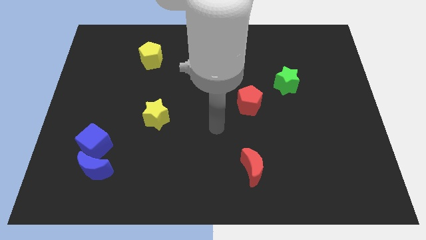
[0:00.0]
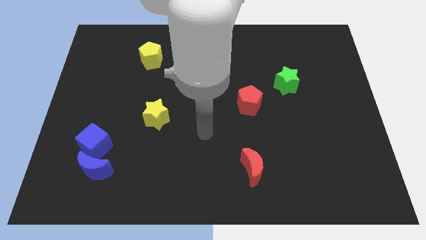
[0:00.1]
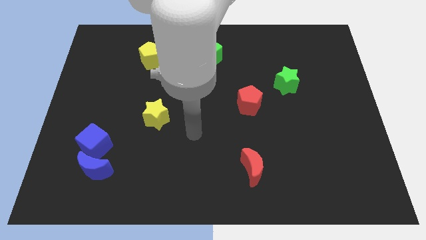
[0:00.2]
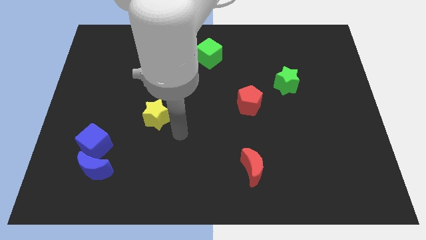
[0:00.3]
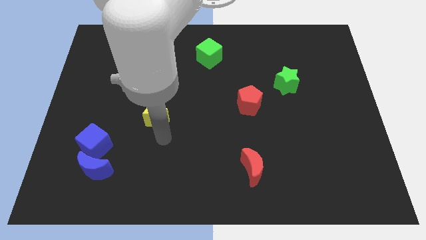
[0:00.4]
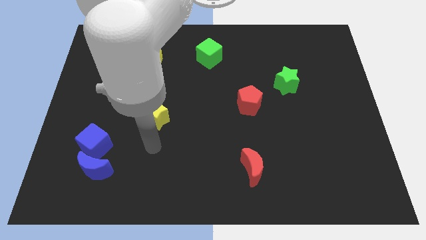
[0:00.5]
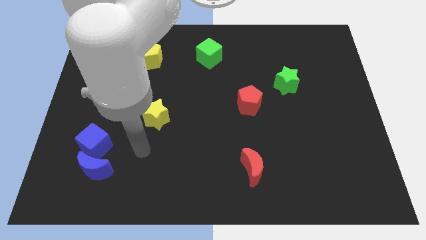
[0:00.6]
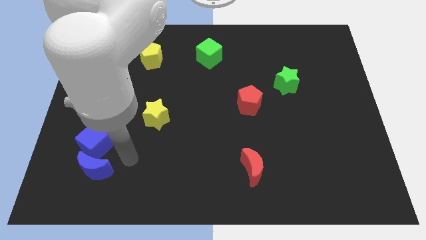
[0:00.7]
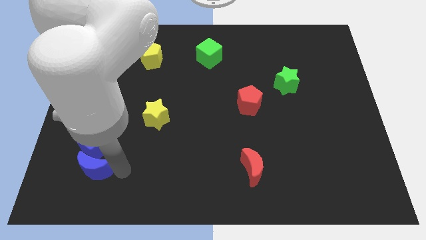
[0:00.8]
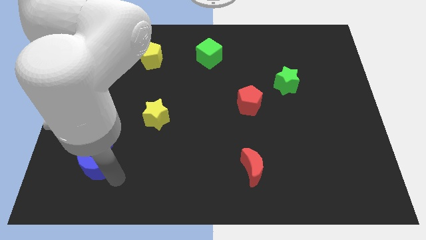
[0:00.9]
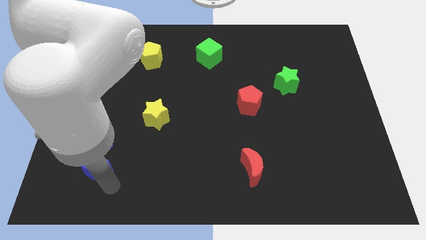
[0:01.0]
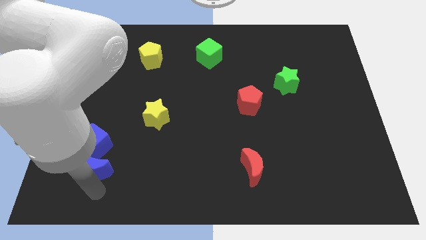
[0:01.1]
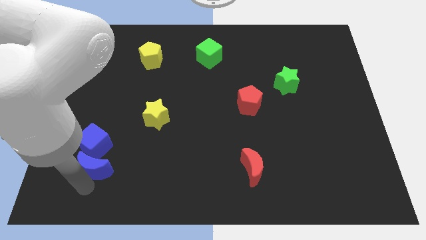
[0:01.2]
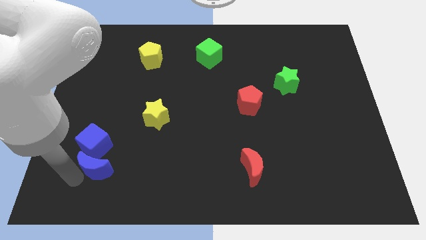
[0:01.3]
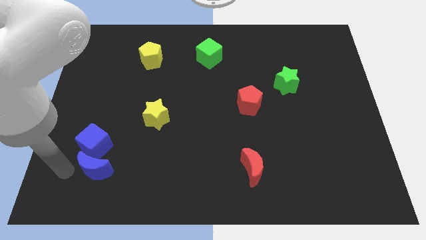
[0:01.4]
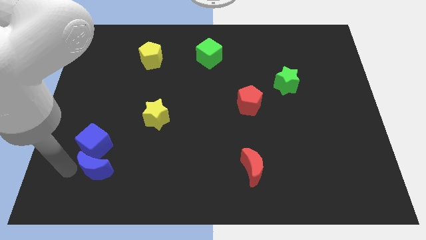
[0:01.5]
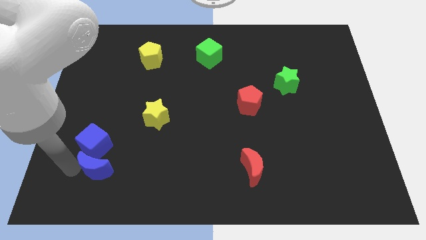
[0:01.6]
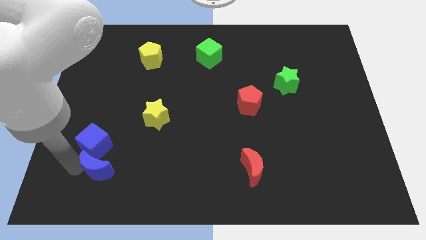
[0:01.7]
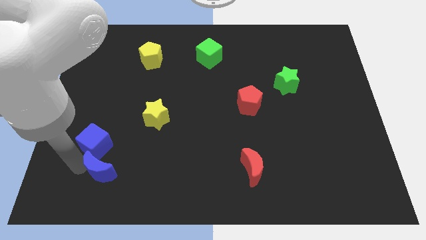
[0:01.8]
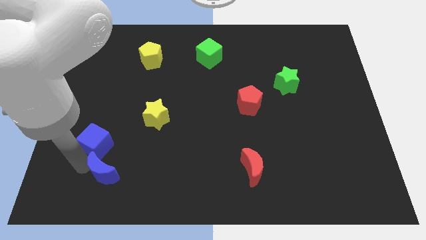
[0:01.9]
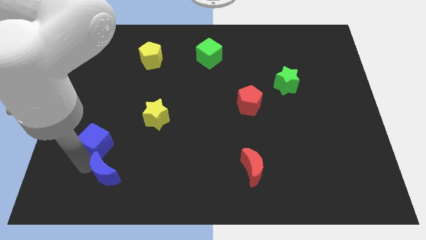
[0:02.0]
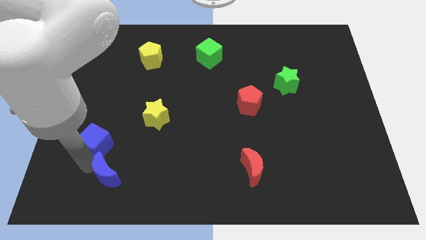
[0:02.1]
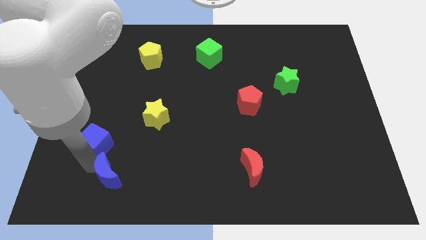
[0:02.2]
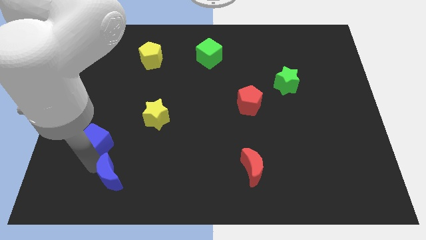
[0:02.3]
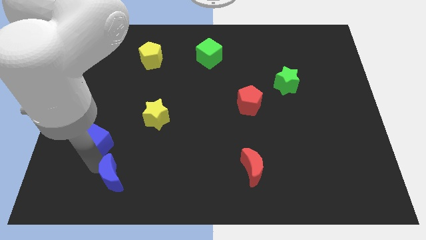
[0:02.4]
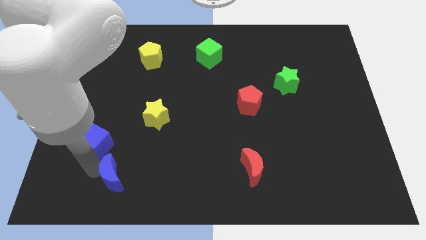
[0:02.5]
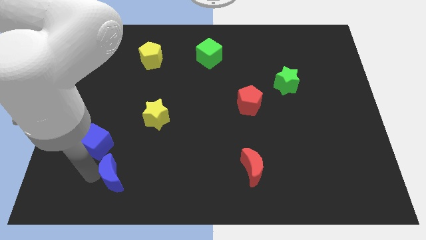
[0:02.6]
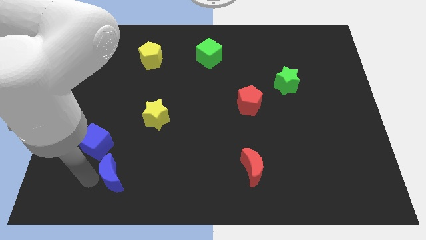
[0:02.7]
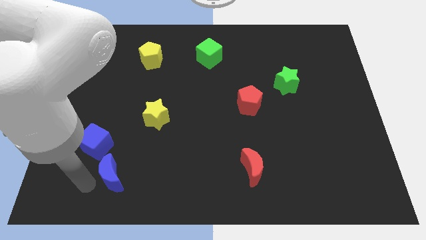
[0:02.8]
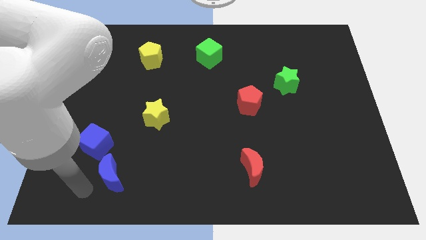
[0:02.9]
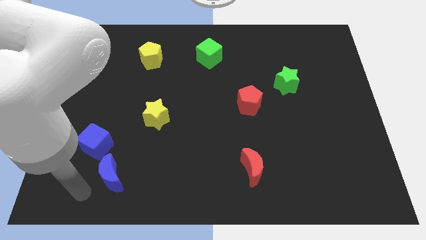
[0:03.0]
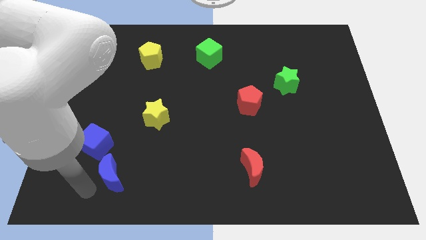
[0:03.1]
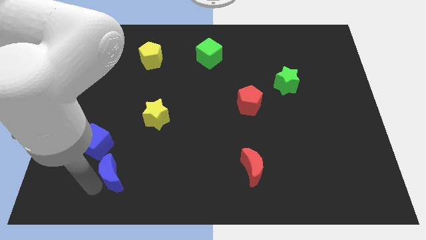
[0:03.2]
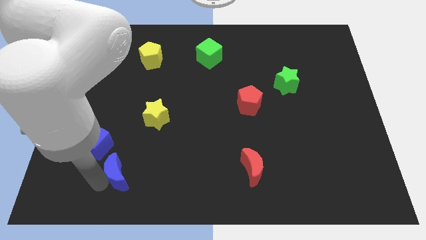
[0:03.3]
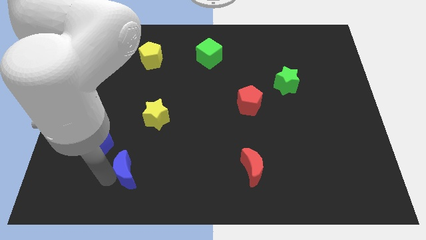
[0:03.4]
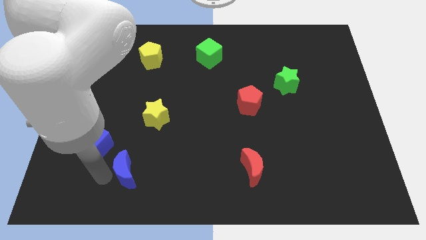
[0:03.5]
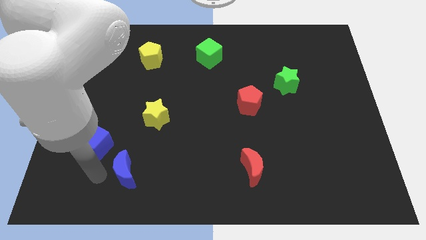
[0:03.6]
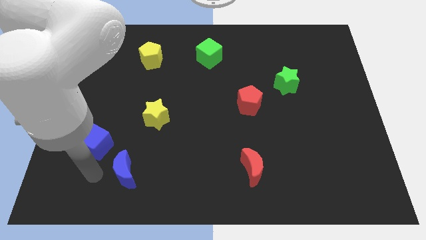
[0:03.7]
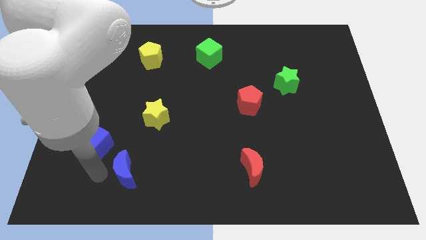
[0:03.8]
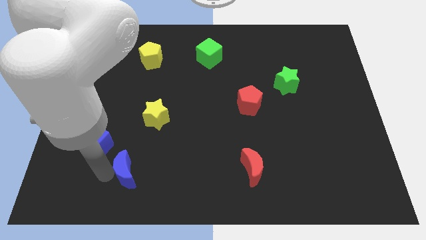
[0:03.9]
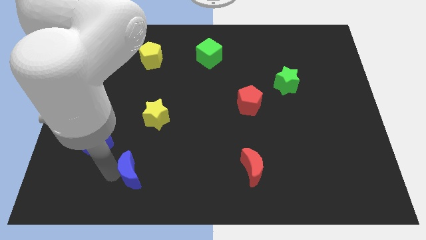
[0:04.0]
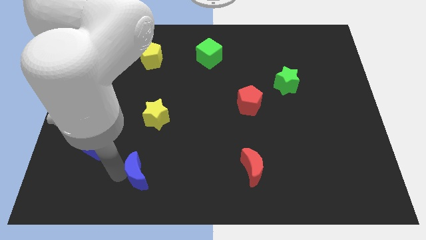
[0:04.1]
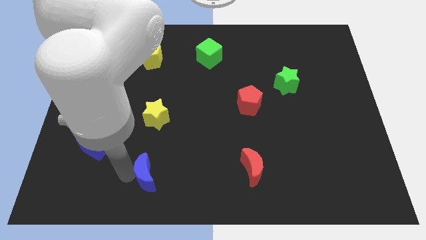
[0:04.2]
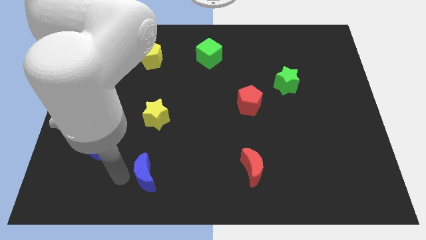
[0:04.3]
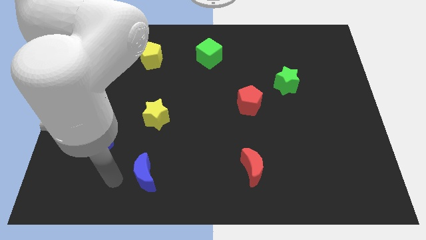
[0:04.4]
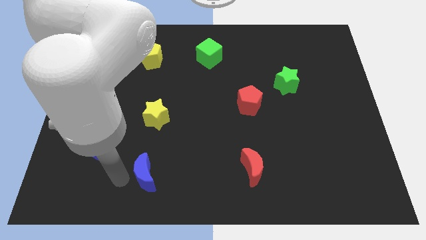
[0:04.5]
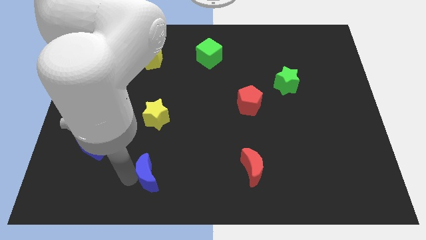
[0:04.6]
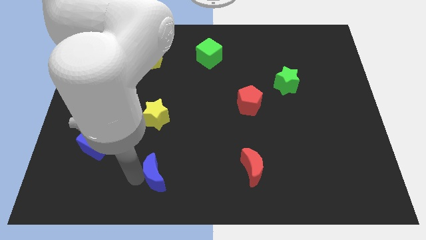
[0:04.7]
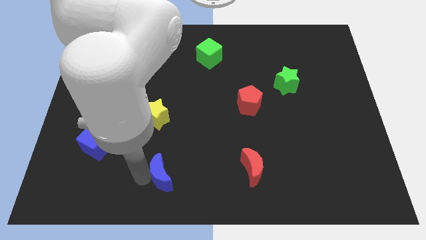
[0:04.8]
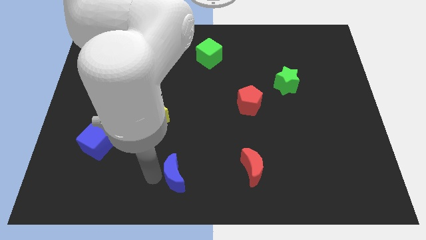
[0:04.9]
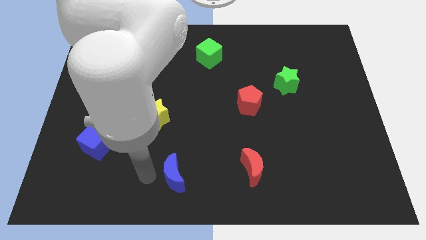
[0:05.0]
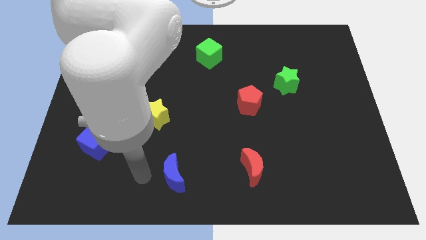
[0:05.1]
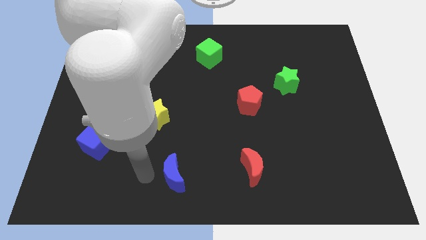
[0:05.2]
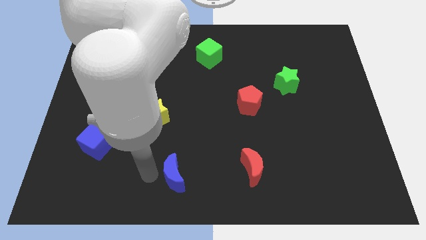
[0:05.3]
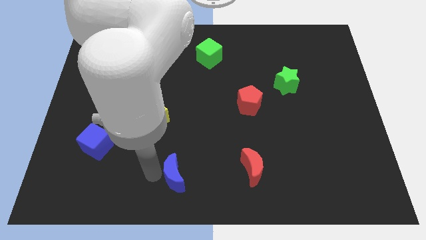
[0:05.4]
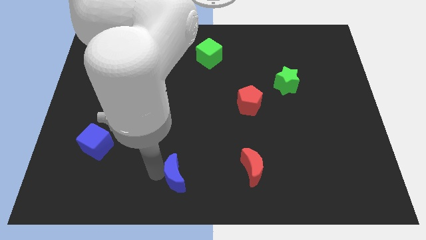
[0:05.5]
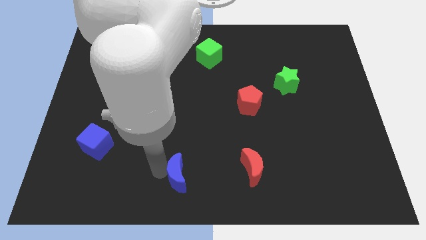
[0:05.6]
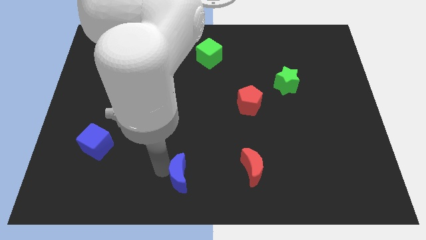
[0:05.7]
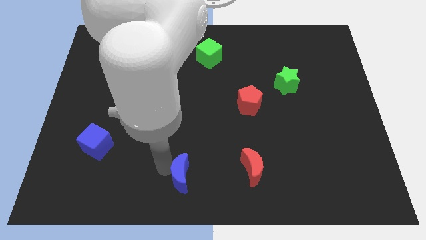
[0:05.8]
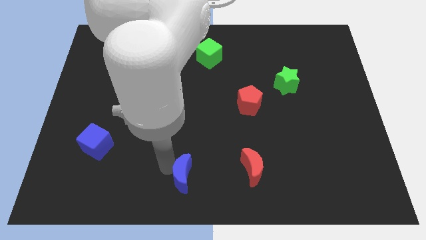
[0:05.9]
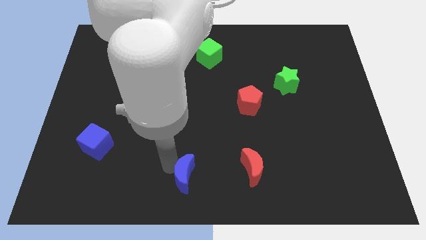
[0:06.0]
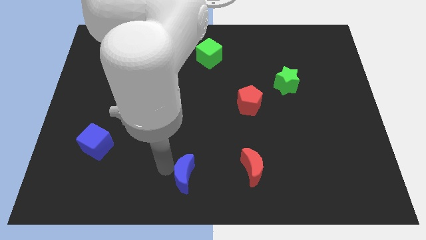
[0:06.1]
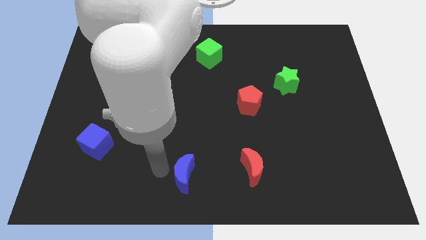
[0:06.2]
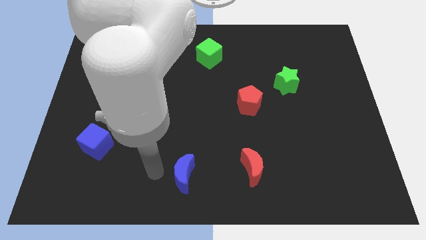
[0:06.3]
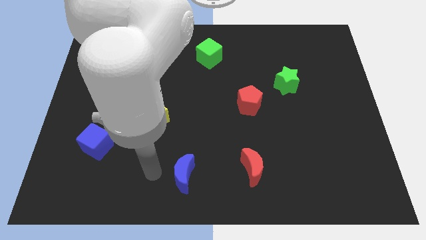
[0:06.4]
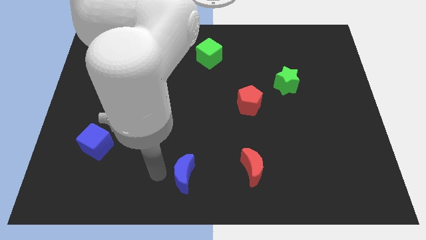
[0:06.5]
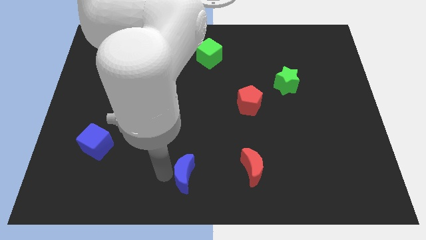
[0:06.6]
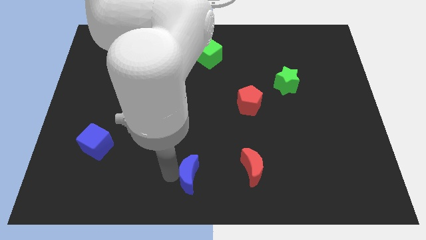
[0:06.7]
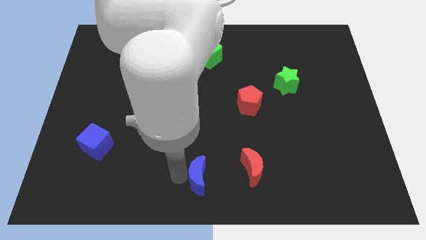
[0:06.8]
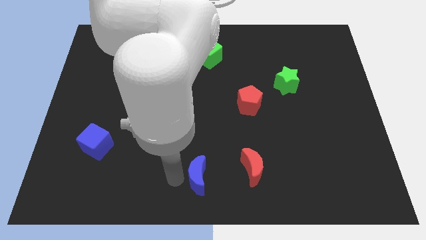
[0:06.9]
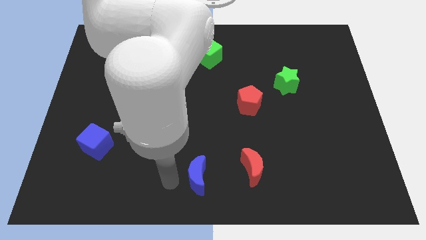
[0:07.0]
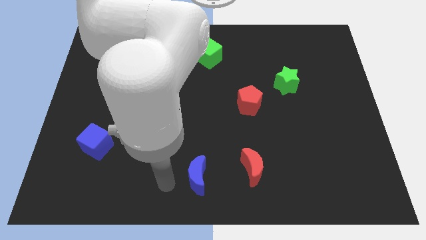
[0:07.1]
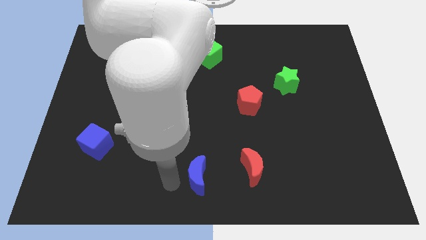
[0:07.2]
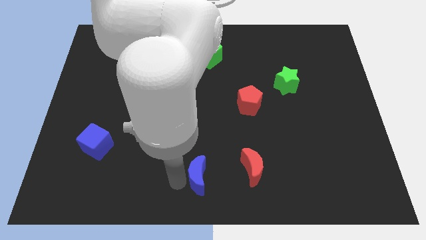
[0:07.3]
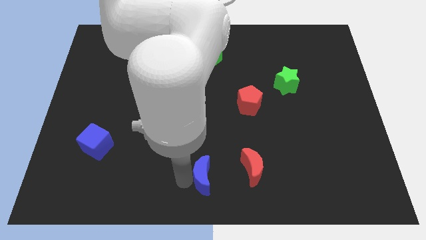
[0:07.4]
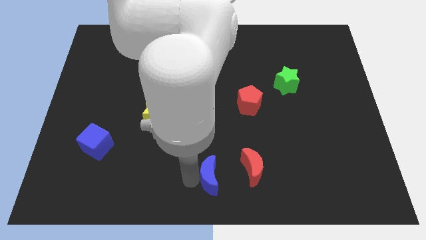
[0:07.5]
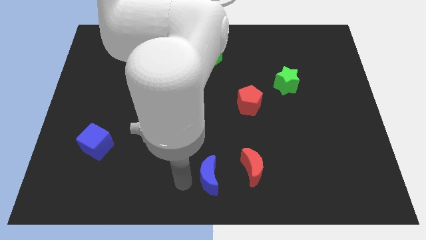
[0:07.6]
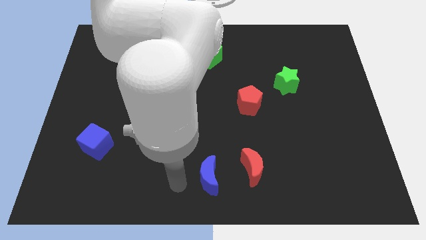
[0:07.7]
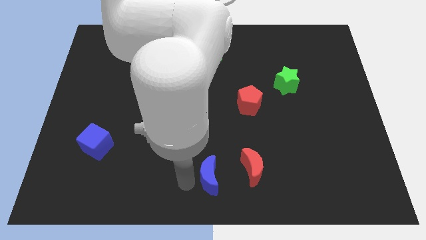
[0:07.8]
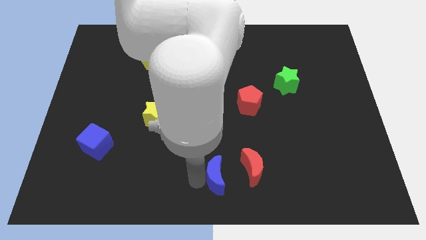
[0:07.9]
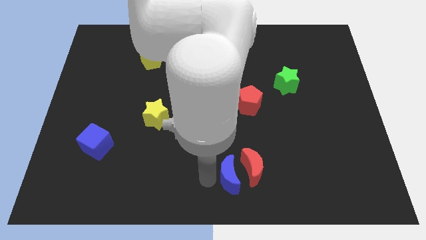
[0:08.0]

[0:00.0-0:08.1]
slide the blue moon next to the red moon
